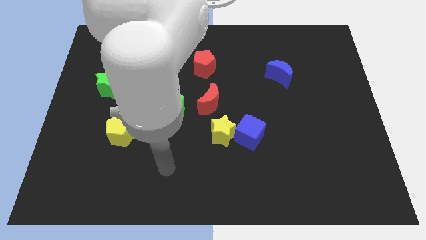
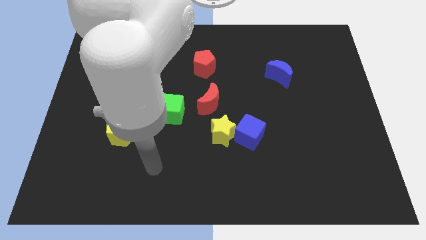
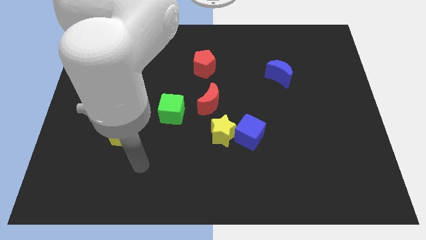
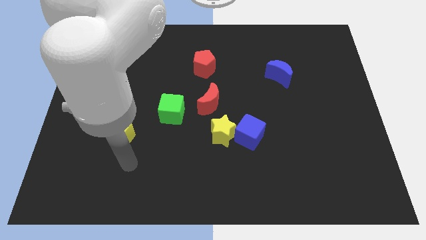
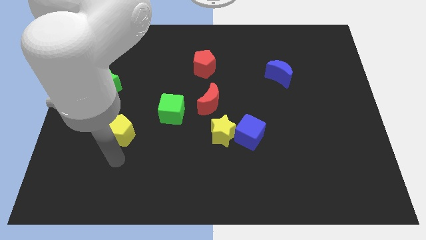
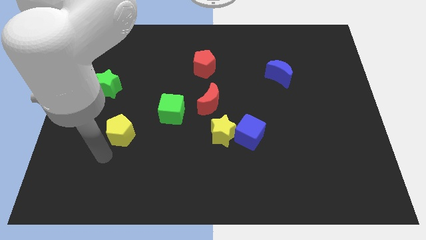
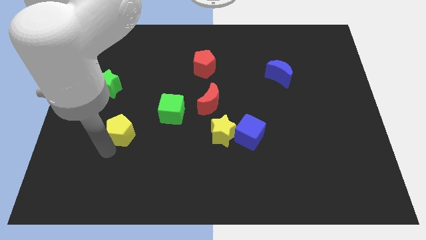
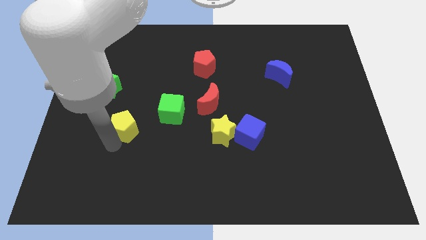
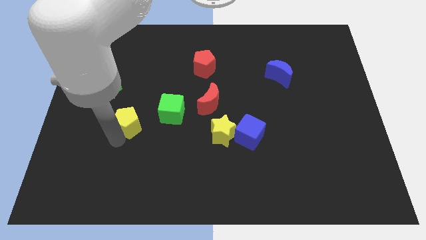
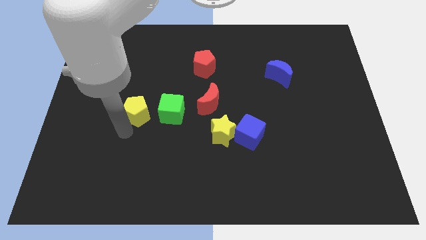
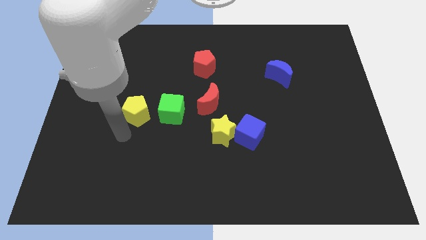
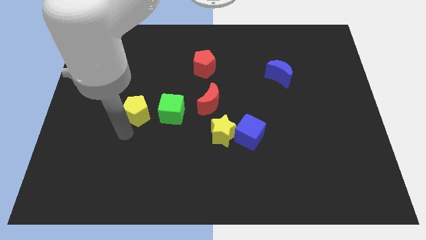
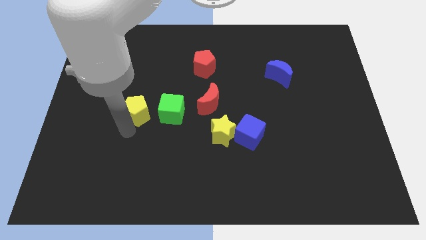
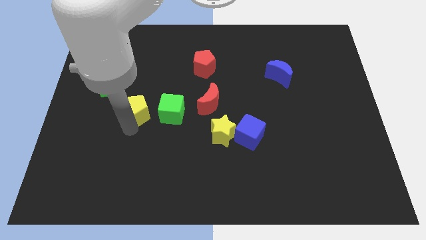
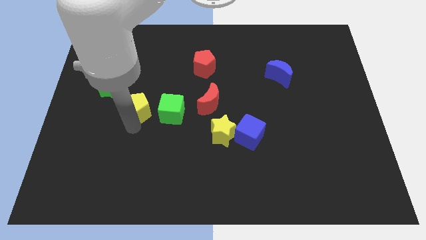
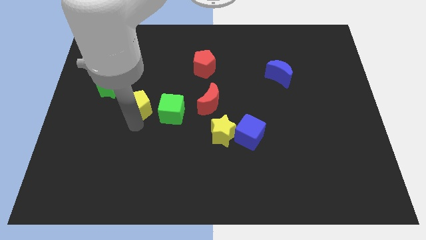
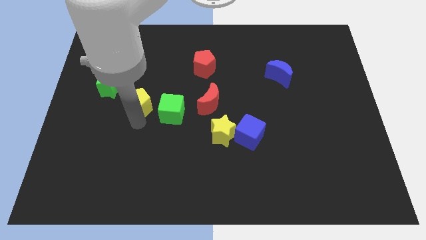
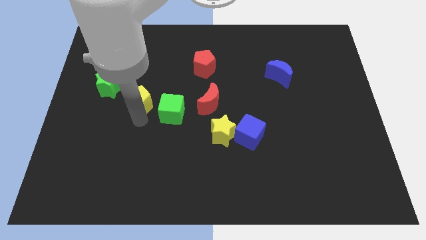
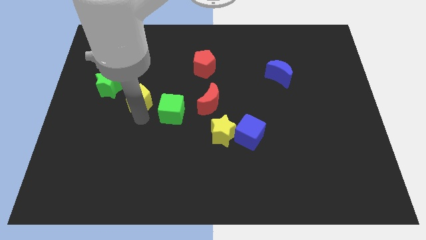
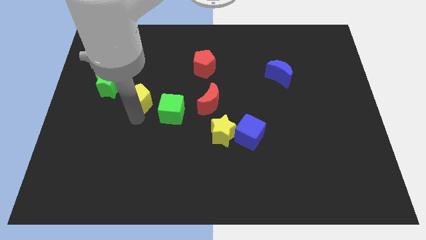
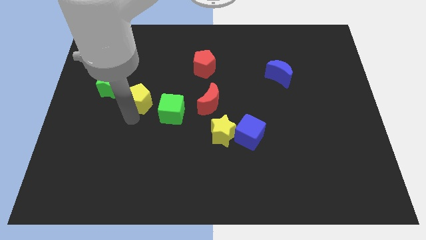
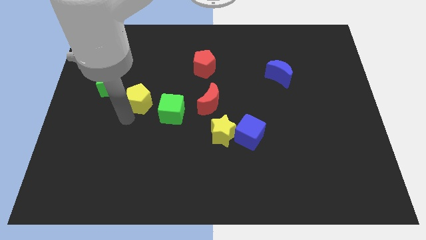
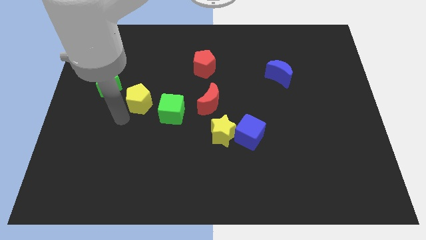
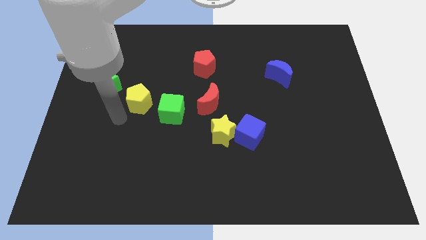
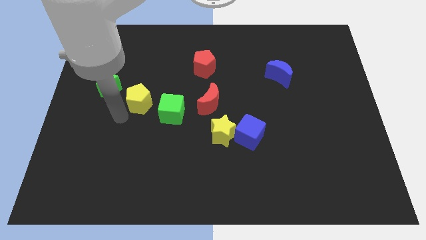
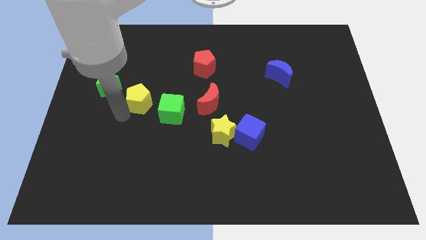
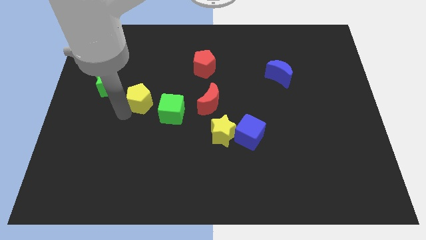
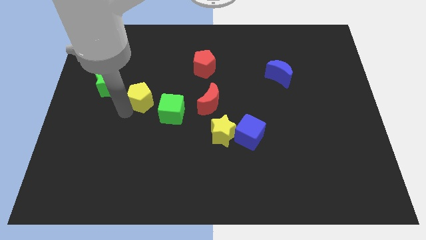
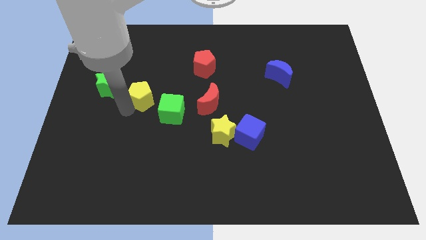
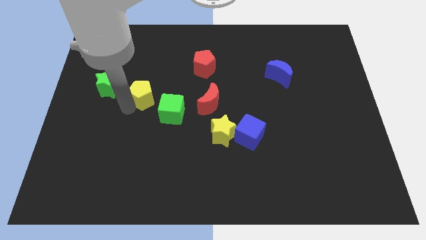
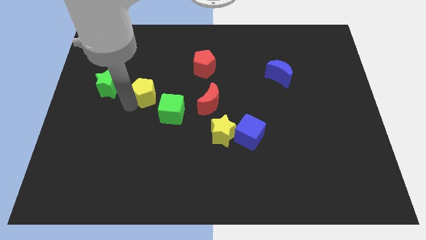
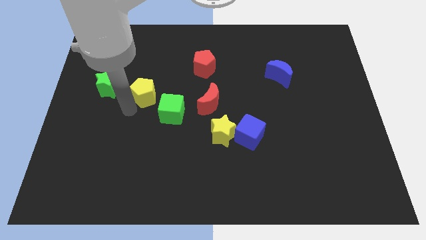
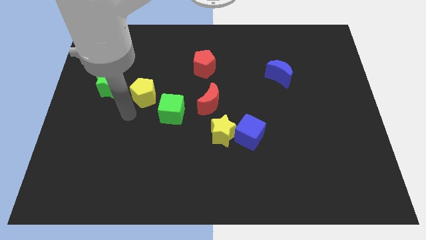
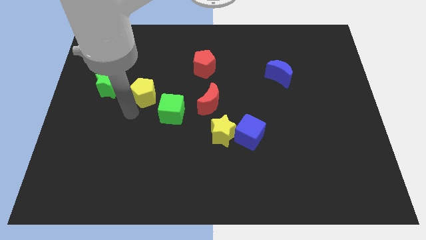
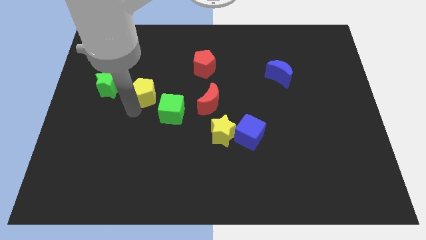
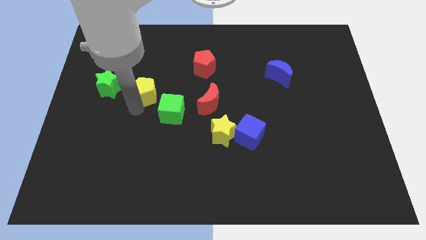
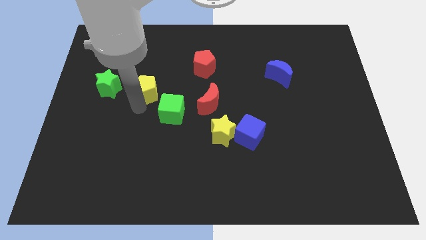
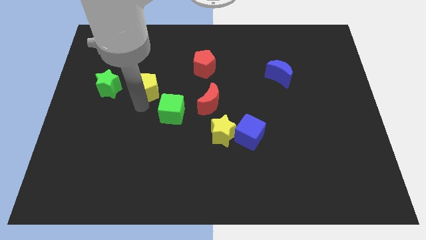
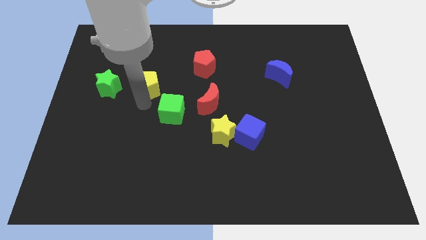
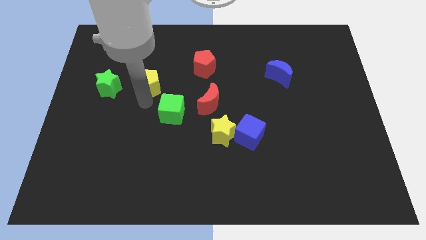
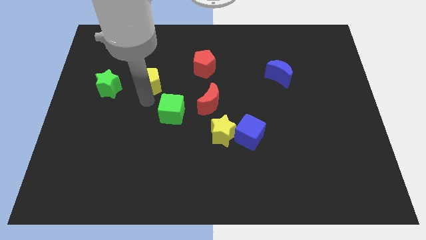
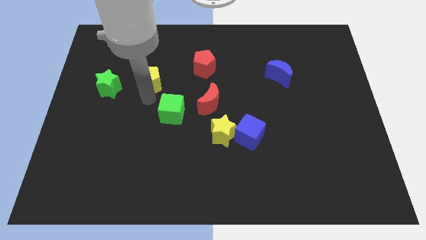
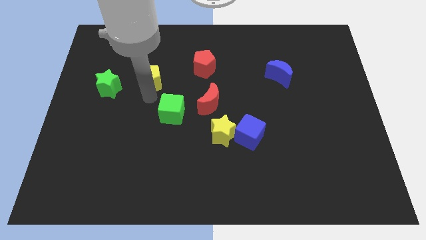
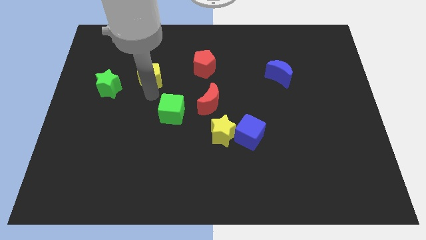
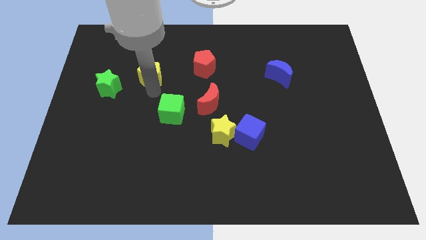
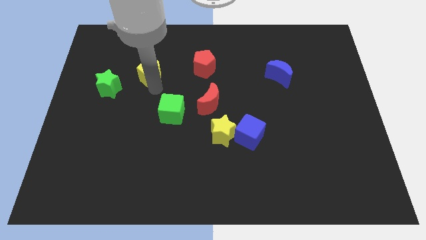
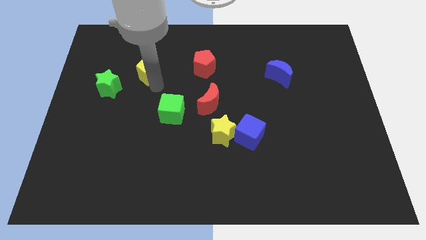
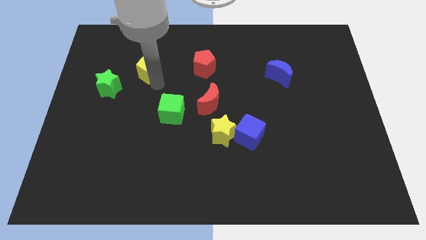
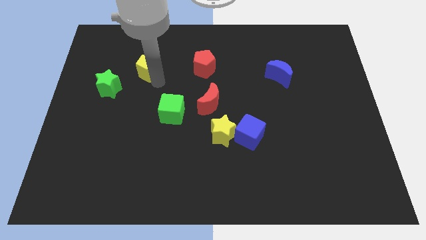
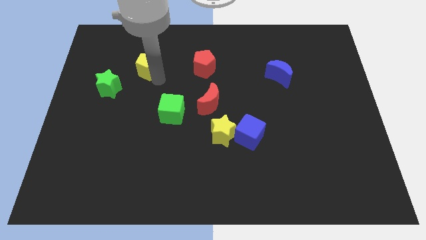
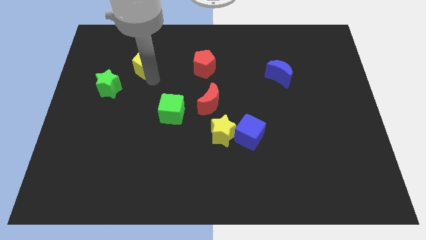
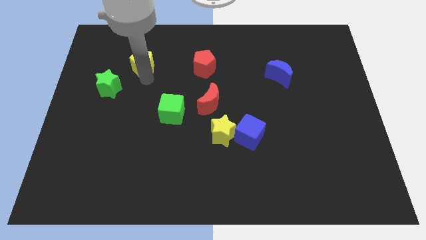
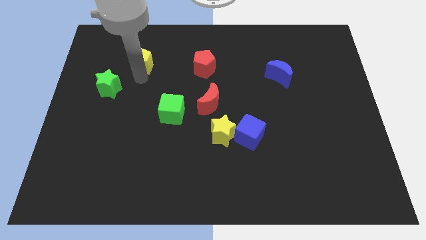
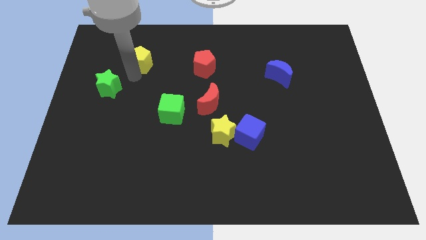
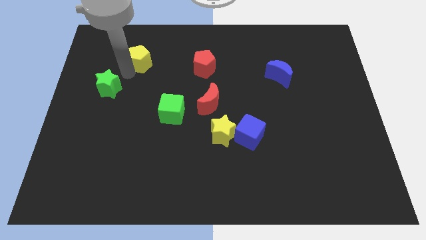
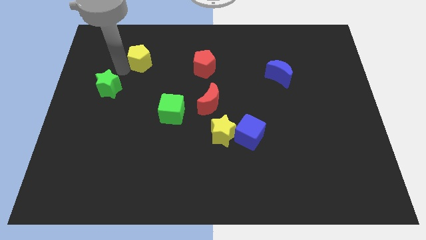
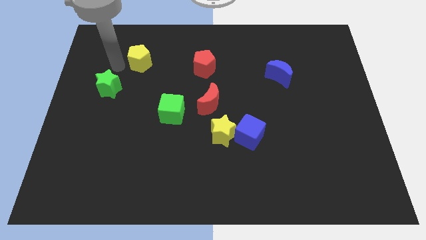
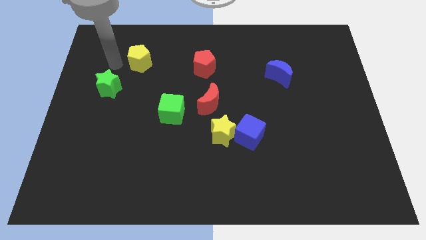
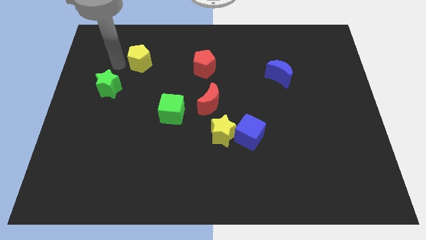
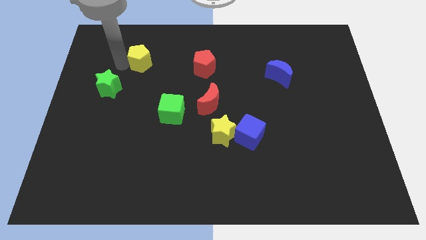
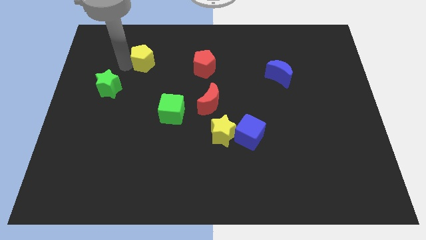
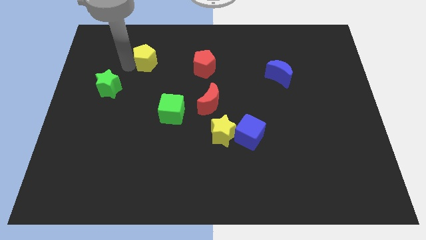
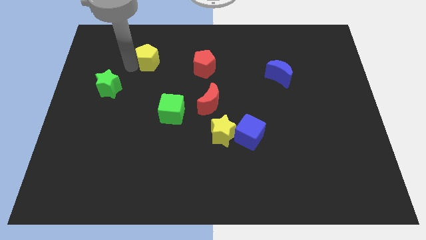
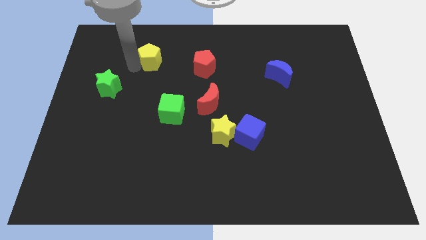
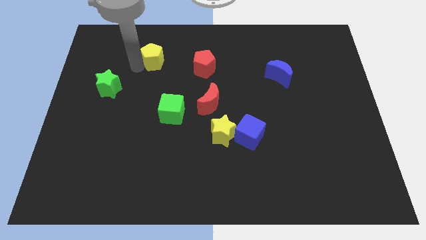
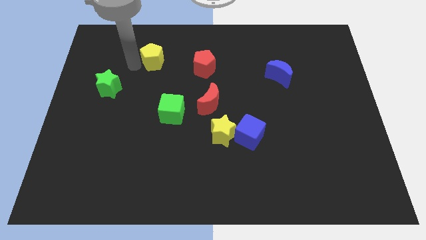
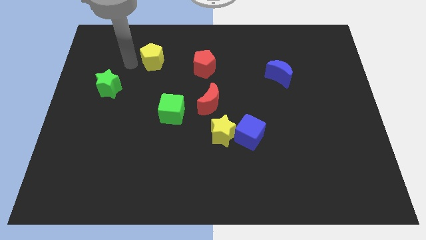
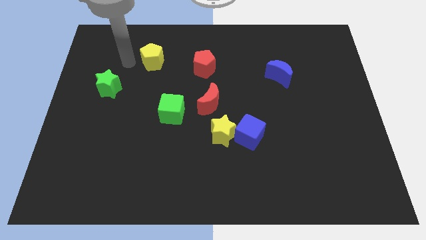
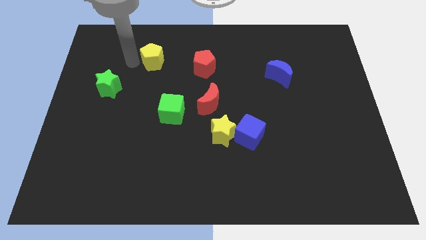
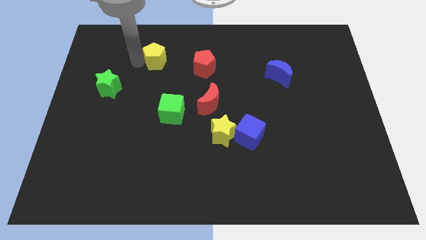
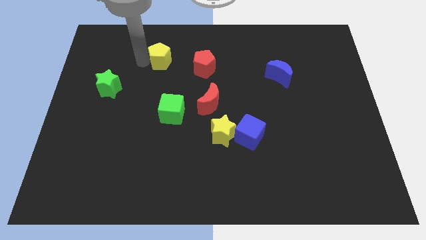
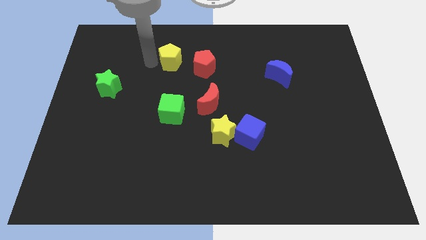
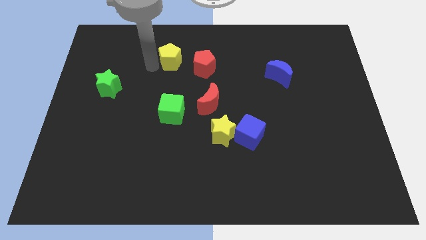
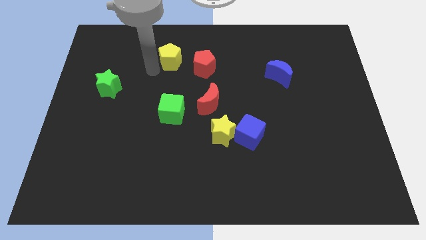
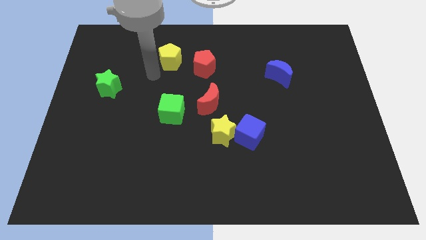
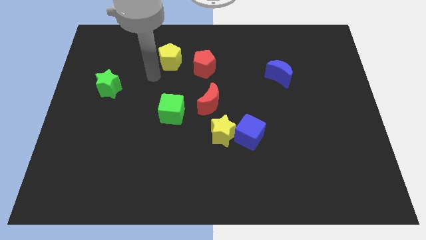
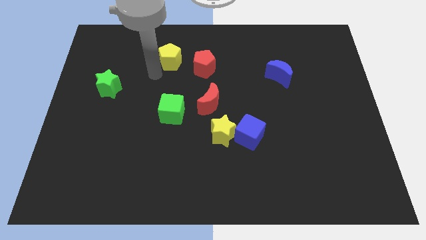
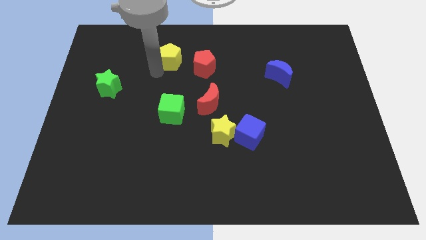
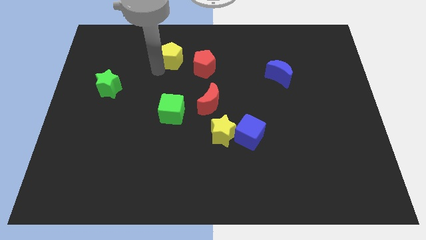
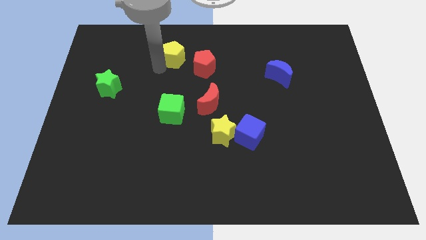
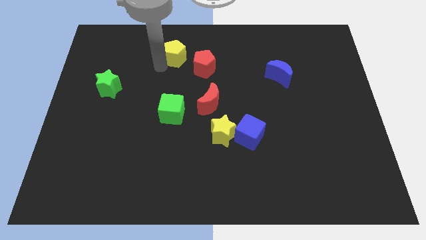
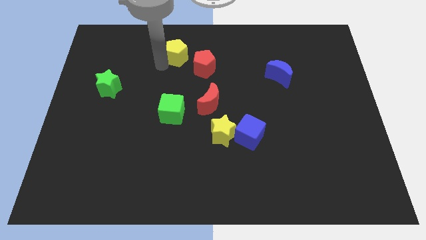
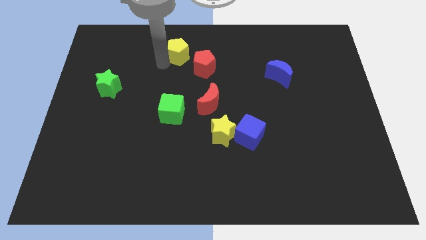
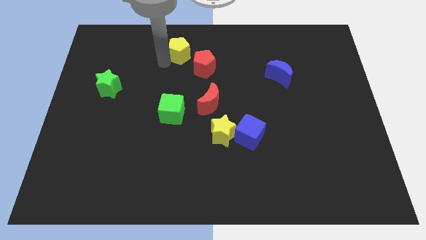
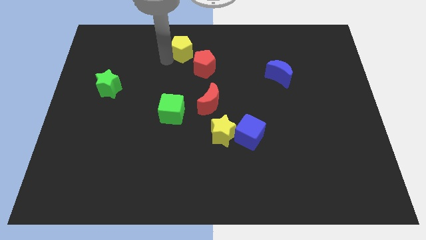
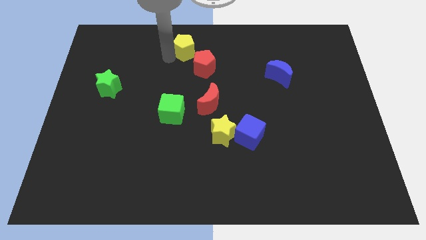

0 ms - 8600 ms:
push the yellow pentagon to the towards your base
